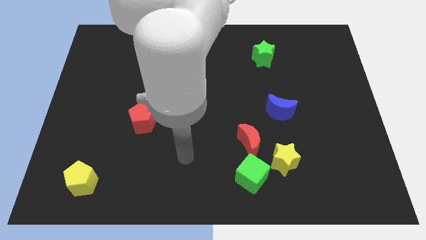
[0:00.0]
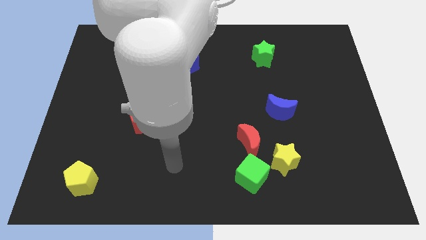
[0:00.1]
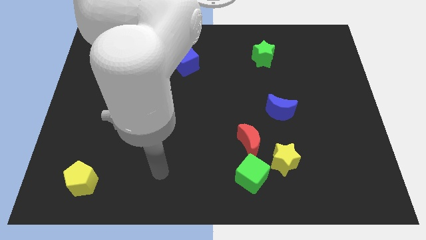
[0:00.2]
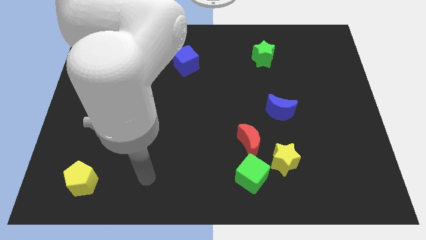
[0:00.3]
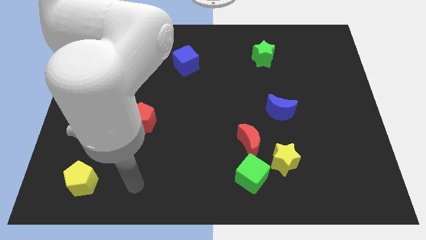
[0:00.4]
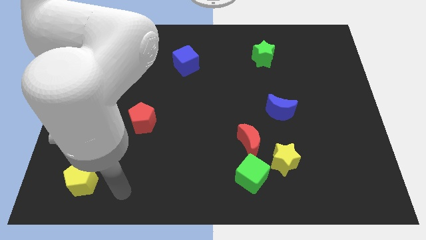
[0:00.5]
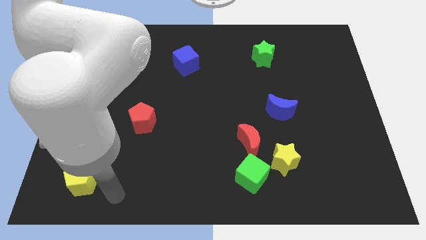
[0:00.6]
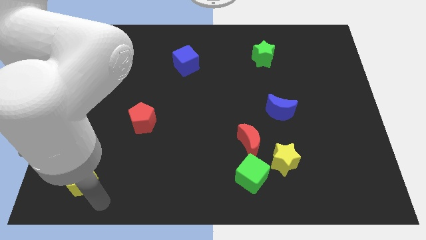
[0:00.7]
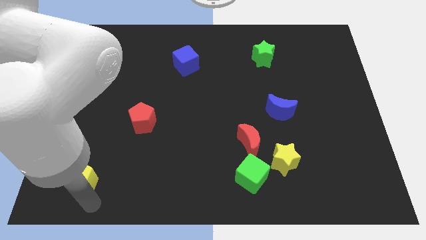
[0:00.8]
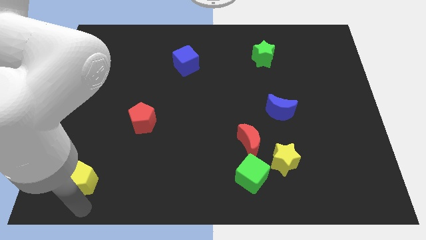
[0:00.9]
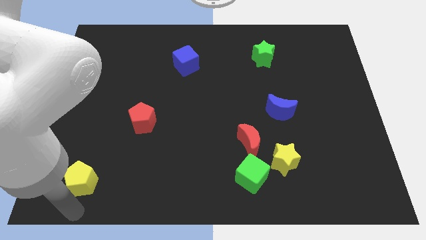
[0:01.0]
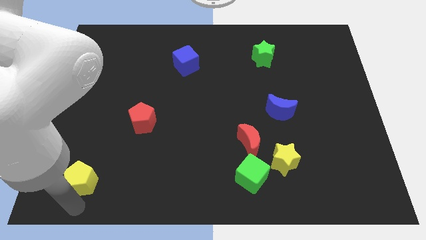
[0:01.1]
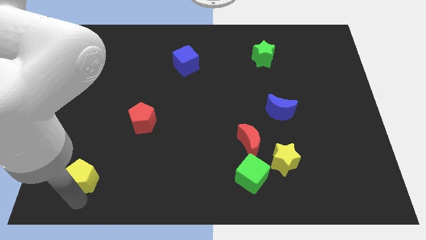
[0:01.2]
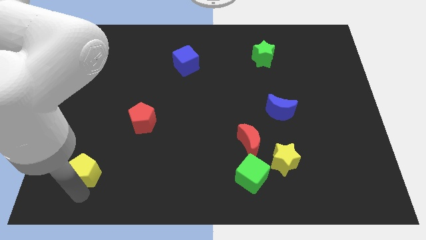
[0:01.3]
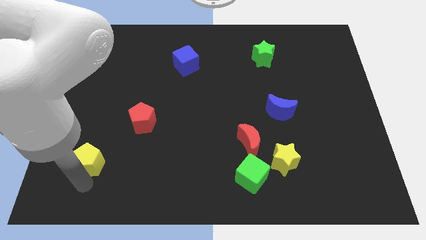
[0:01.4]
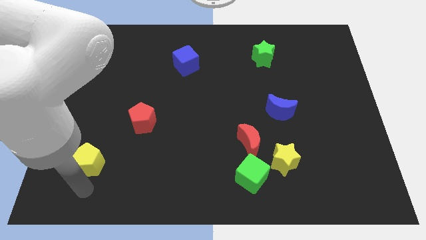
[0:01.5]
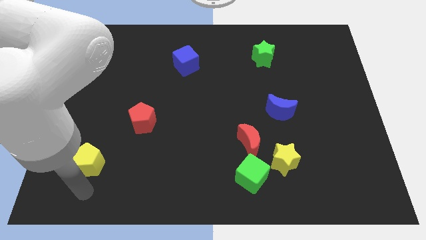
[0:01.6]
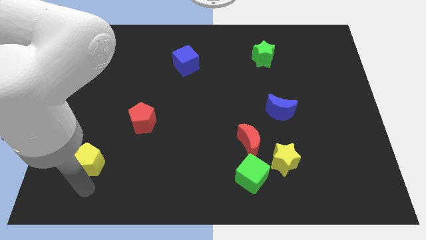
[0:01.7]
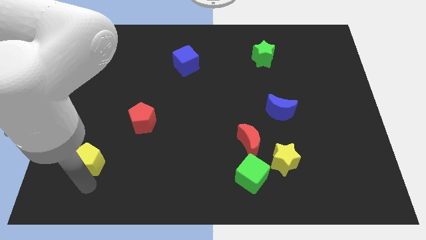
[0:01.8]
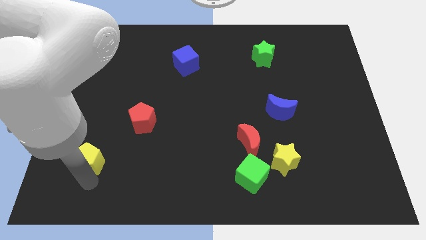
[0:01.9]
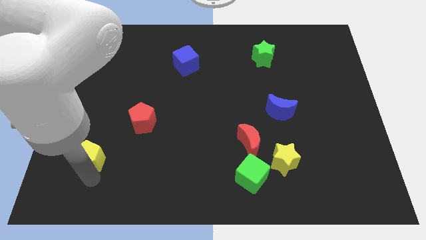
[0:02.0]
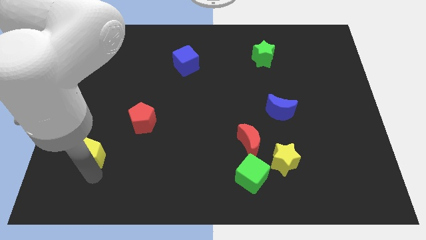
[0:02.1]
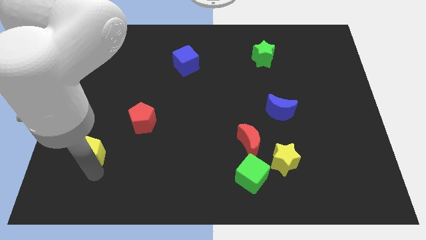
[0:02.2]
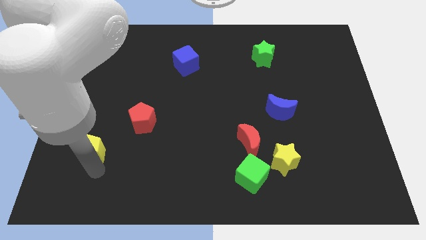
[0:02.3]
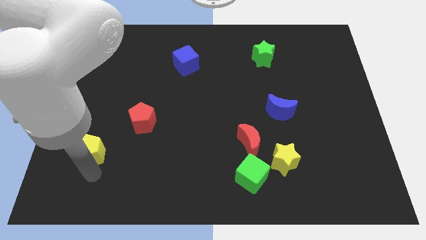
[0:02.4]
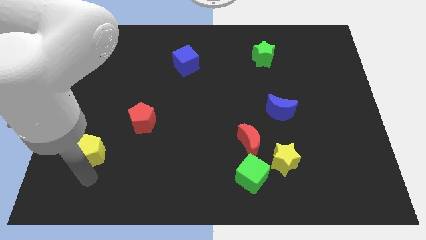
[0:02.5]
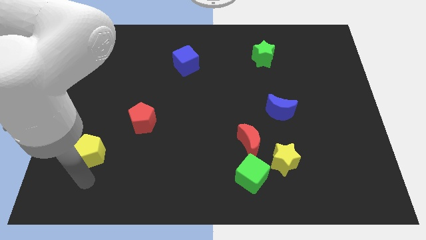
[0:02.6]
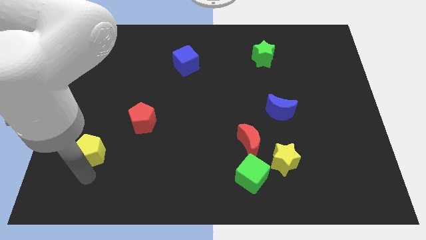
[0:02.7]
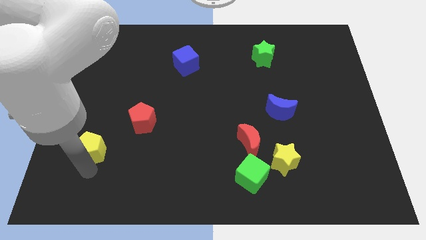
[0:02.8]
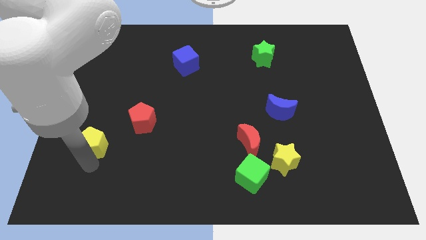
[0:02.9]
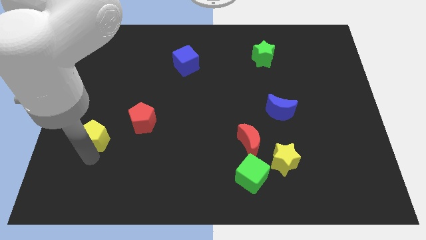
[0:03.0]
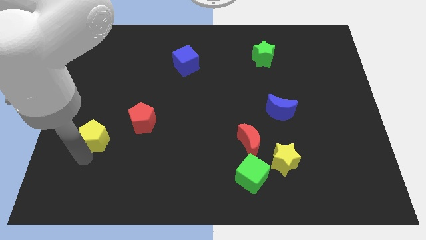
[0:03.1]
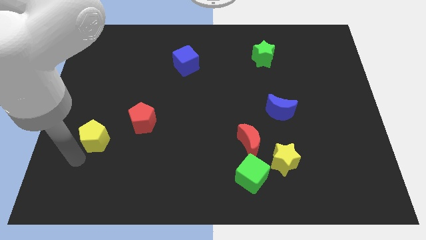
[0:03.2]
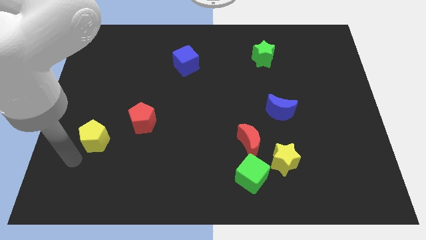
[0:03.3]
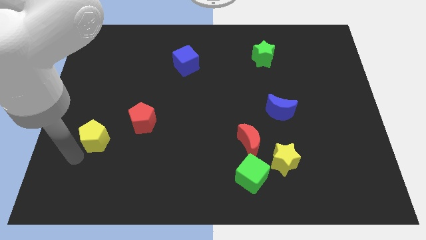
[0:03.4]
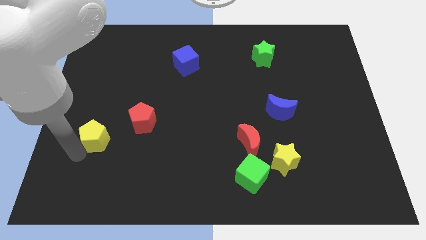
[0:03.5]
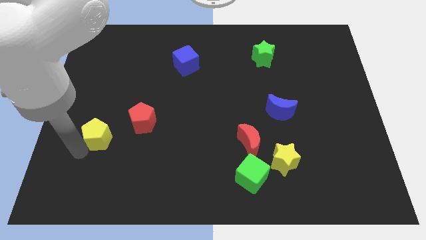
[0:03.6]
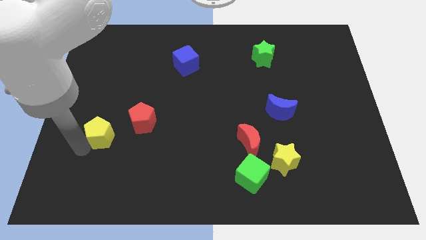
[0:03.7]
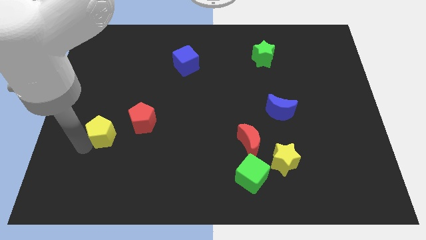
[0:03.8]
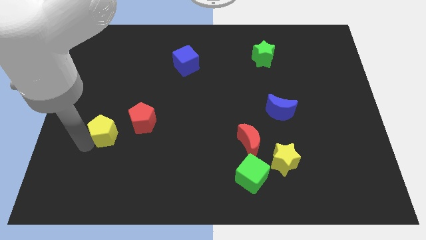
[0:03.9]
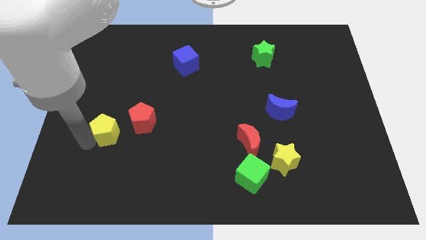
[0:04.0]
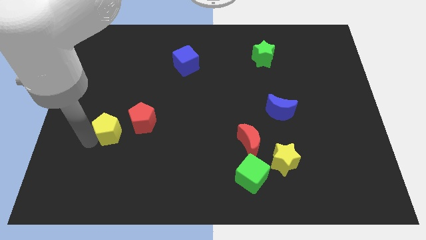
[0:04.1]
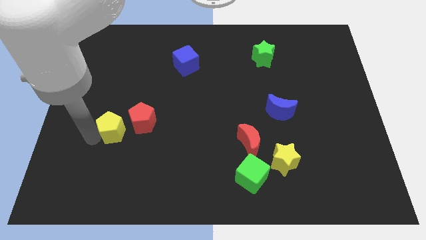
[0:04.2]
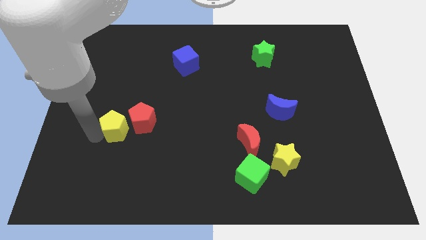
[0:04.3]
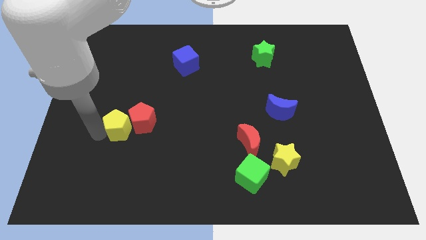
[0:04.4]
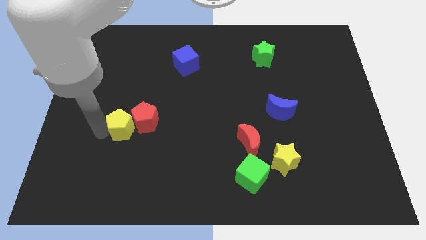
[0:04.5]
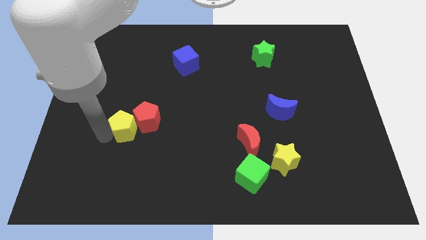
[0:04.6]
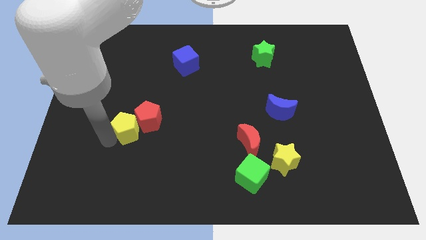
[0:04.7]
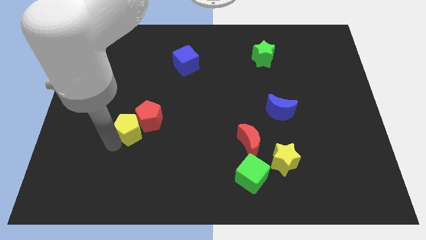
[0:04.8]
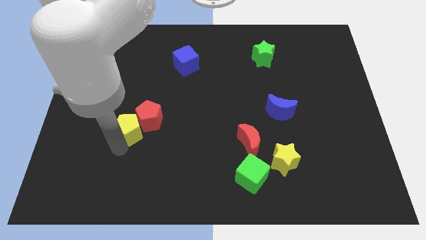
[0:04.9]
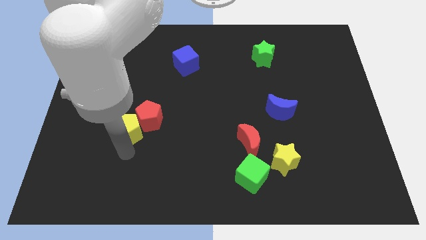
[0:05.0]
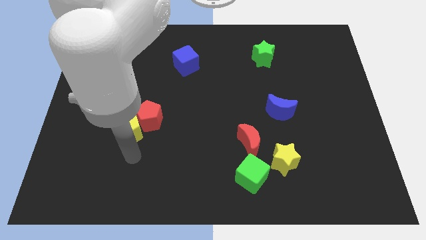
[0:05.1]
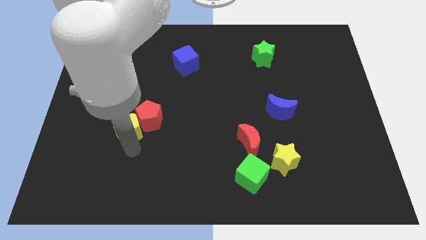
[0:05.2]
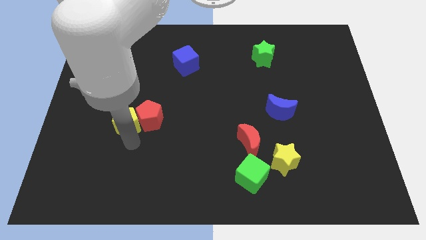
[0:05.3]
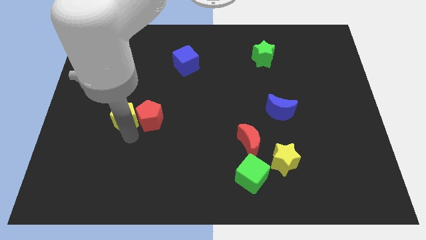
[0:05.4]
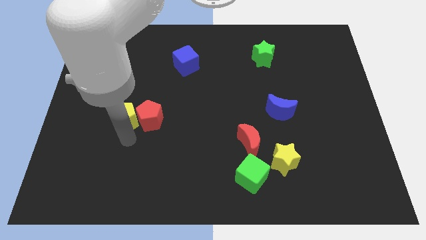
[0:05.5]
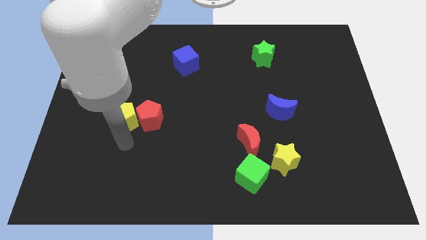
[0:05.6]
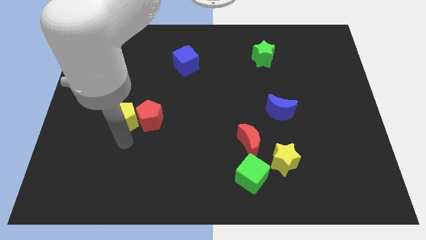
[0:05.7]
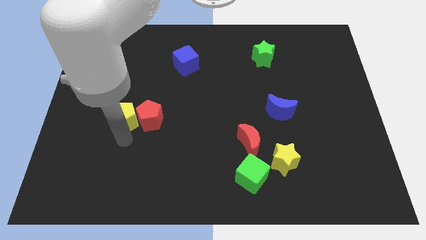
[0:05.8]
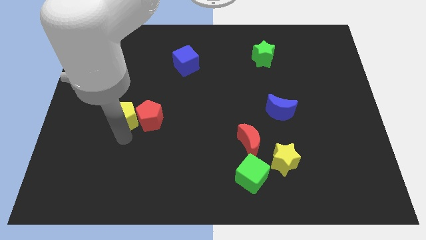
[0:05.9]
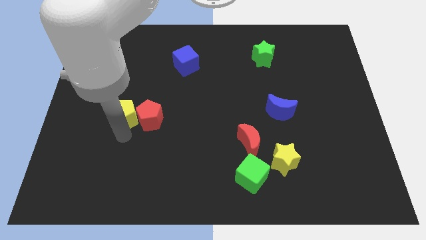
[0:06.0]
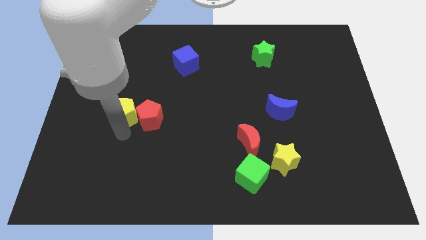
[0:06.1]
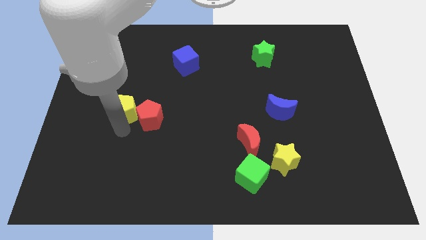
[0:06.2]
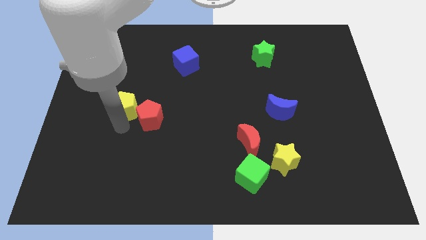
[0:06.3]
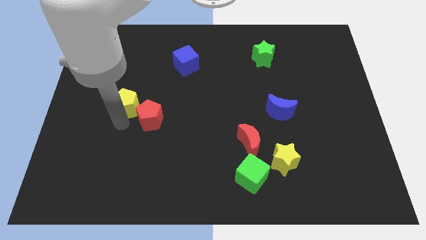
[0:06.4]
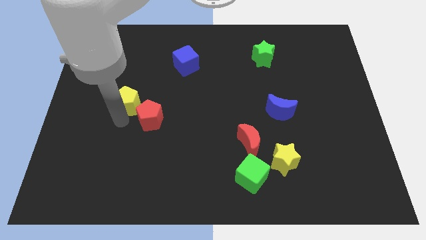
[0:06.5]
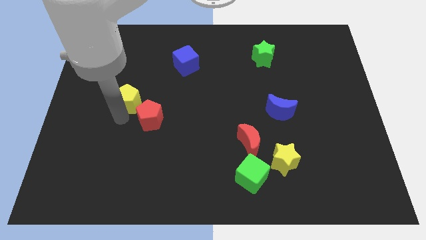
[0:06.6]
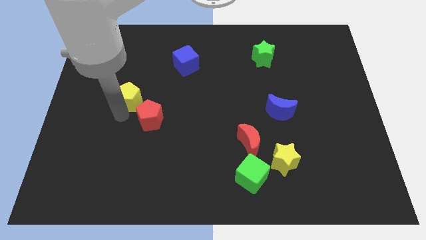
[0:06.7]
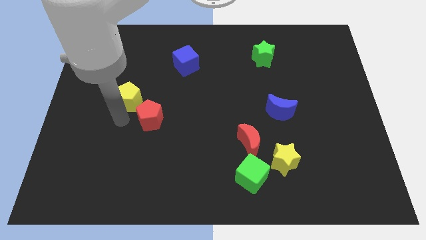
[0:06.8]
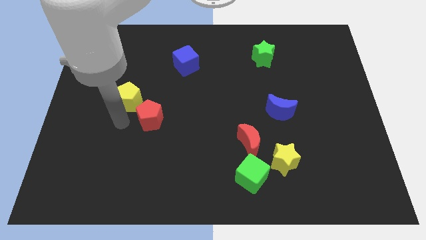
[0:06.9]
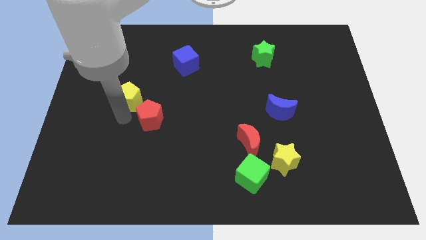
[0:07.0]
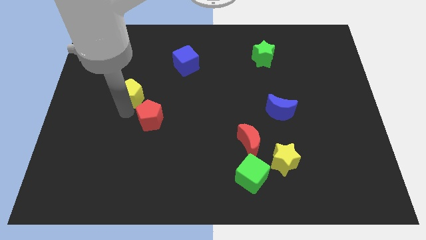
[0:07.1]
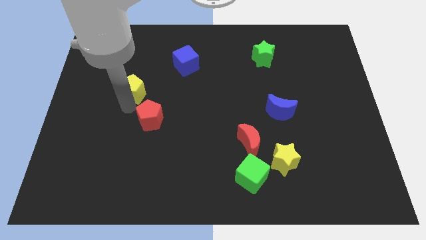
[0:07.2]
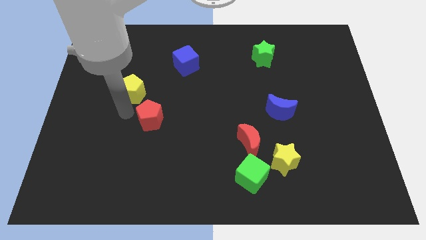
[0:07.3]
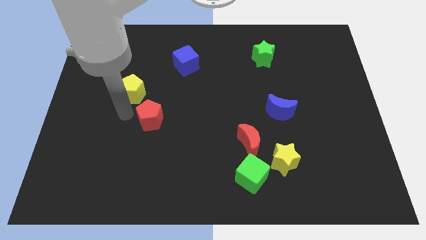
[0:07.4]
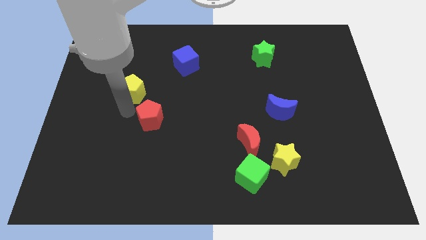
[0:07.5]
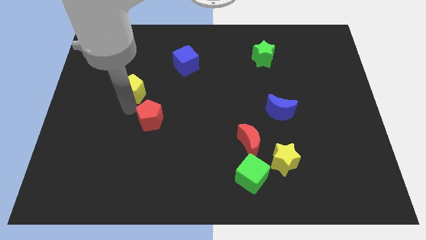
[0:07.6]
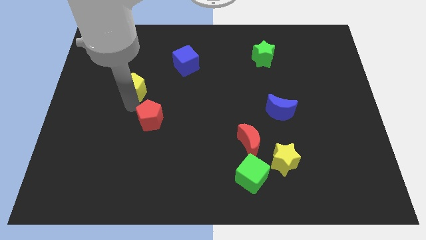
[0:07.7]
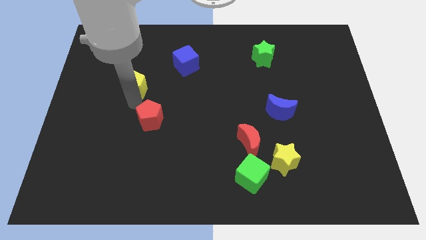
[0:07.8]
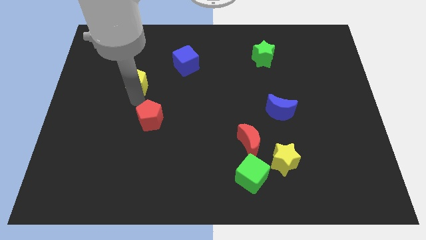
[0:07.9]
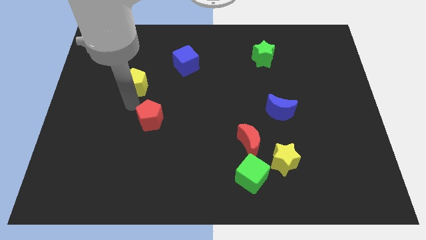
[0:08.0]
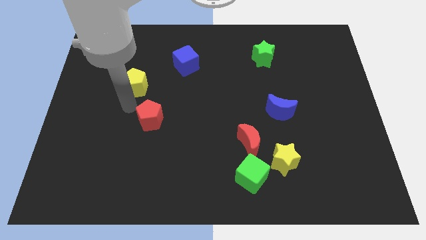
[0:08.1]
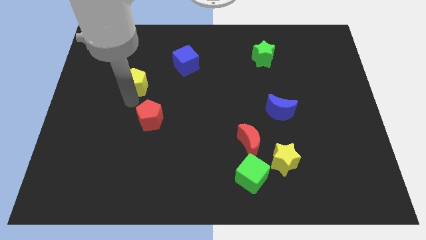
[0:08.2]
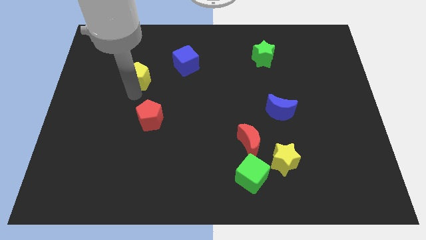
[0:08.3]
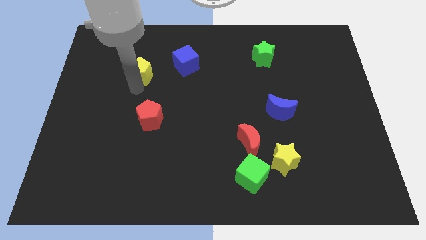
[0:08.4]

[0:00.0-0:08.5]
put the yellow pentagon to the left side of the blue cube
